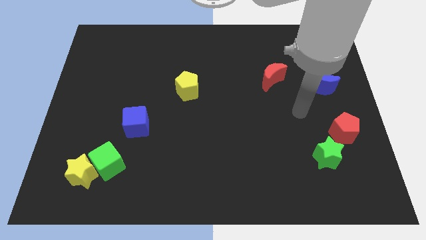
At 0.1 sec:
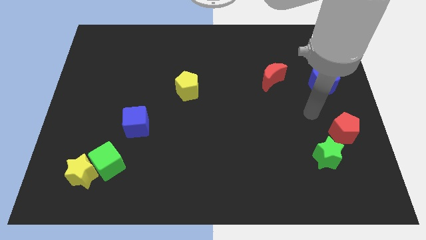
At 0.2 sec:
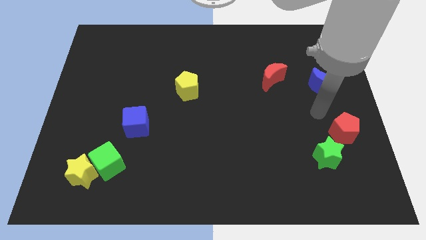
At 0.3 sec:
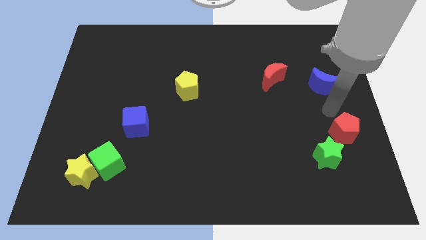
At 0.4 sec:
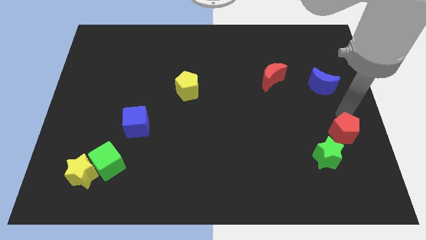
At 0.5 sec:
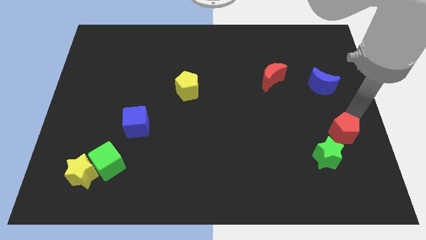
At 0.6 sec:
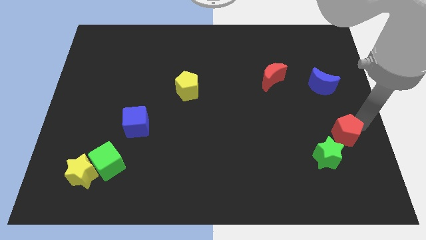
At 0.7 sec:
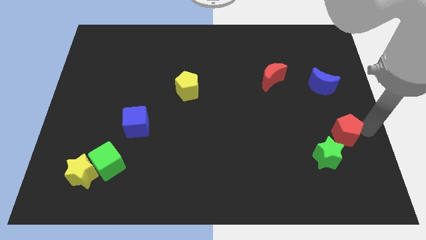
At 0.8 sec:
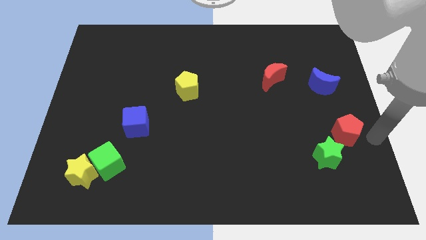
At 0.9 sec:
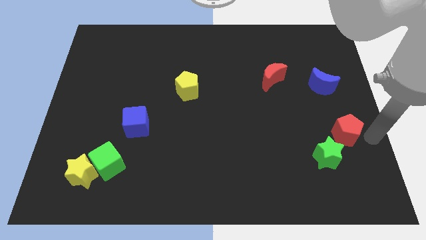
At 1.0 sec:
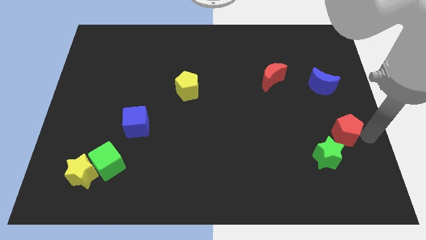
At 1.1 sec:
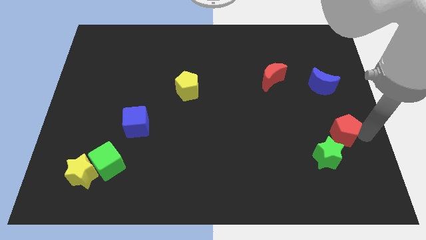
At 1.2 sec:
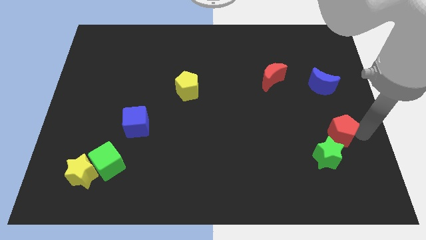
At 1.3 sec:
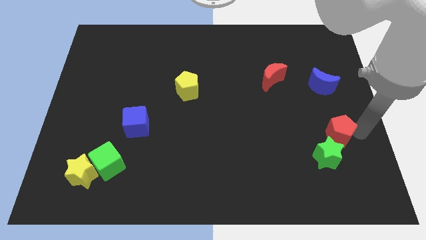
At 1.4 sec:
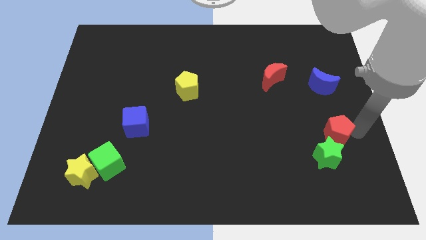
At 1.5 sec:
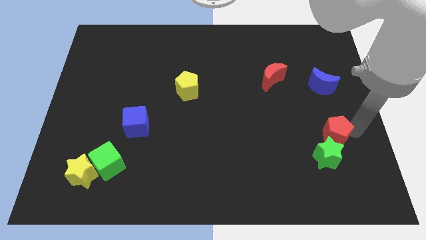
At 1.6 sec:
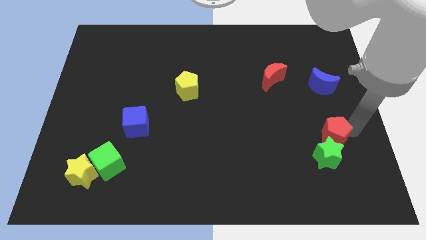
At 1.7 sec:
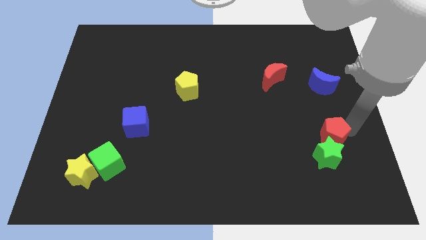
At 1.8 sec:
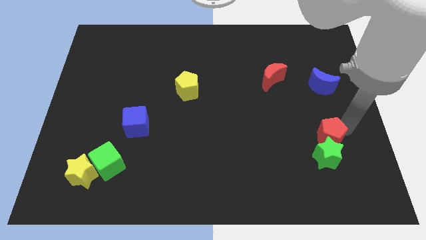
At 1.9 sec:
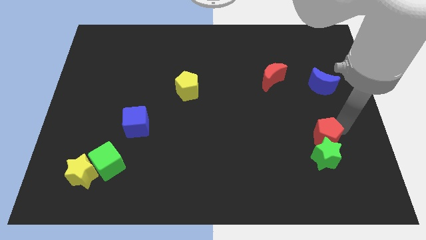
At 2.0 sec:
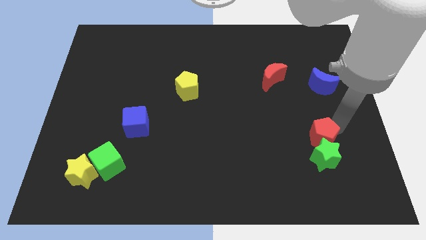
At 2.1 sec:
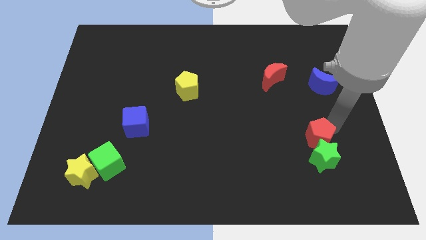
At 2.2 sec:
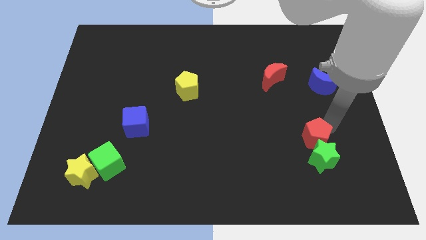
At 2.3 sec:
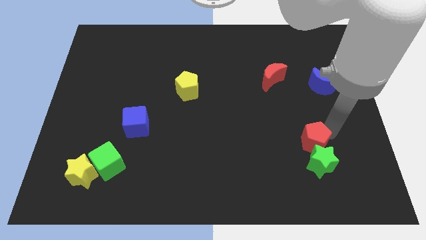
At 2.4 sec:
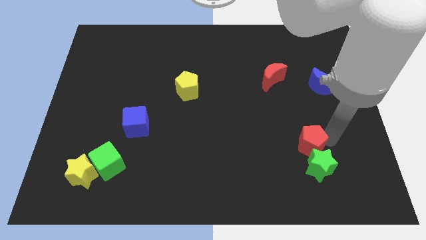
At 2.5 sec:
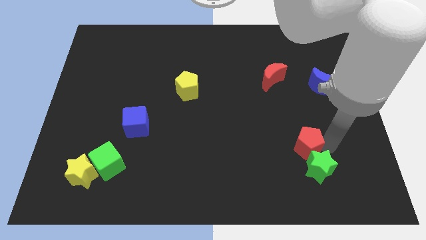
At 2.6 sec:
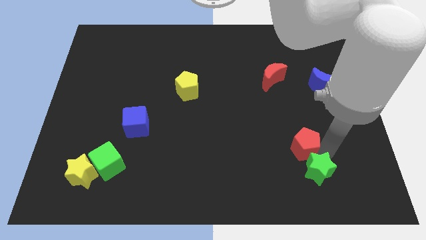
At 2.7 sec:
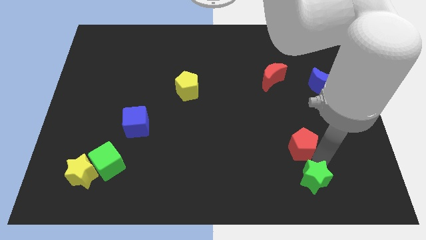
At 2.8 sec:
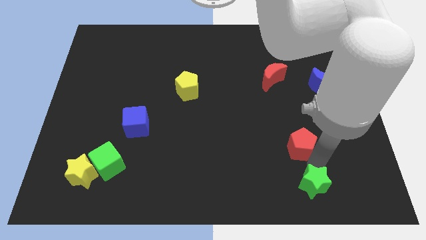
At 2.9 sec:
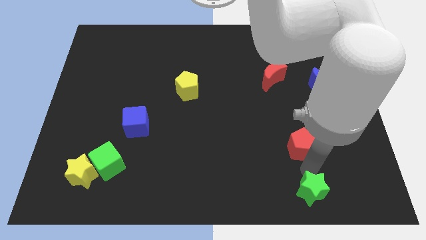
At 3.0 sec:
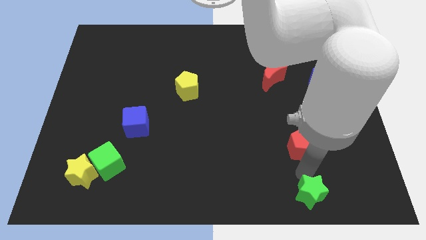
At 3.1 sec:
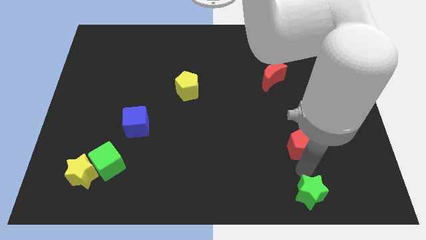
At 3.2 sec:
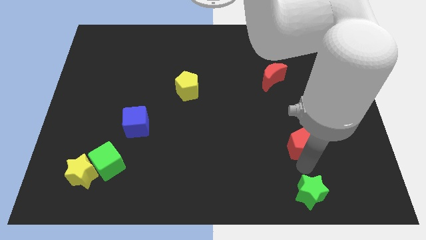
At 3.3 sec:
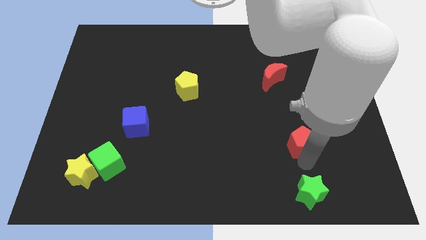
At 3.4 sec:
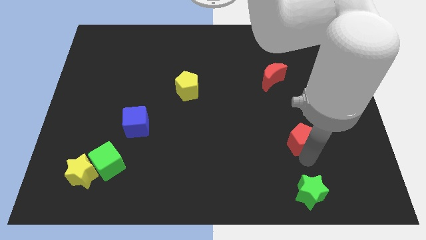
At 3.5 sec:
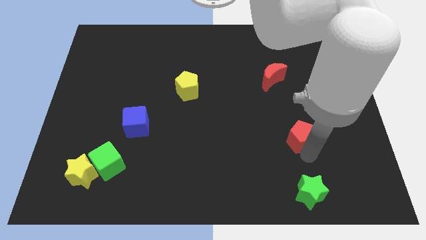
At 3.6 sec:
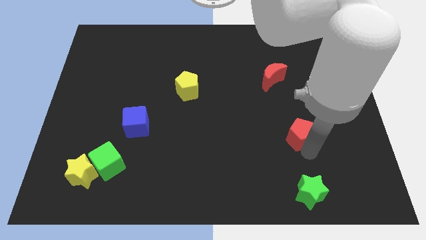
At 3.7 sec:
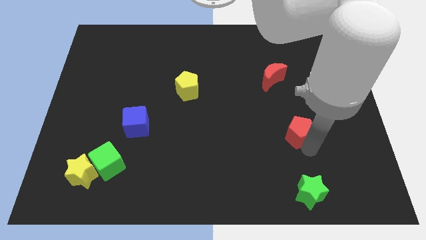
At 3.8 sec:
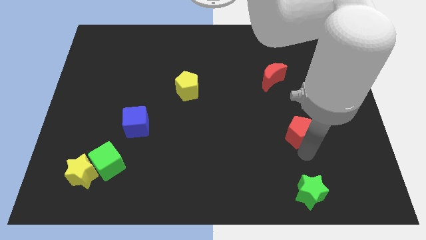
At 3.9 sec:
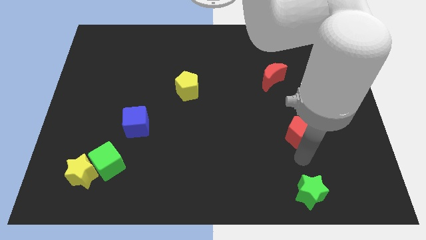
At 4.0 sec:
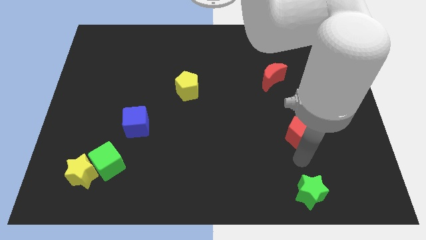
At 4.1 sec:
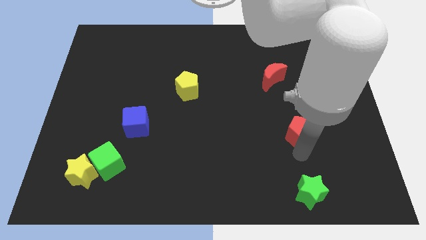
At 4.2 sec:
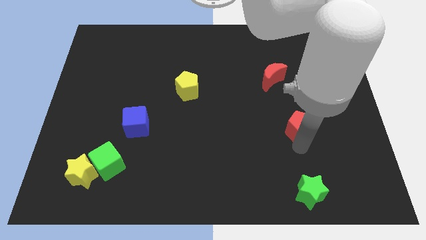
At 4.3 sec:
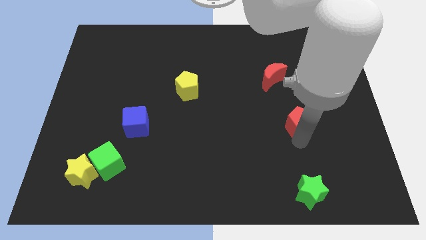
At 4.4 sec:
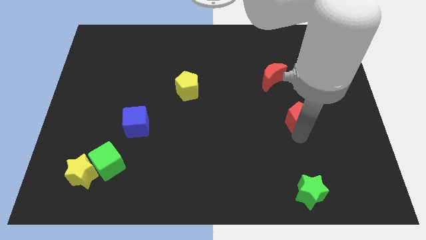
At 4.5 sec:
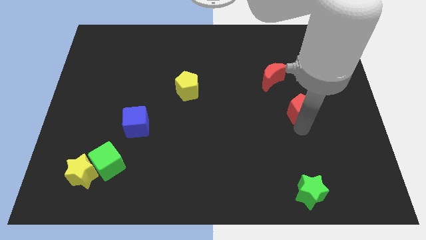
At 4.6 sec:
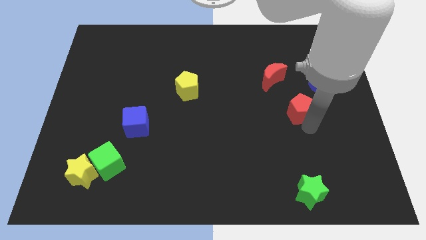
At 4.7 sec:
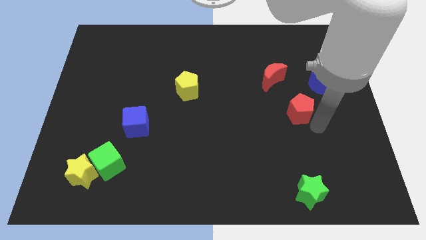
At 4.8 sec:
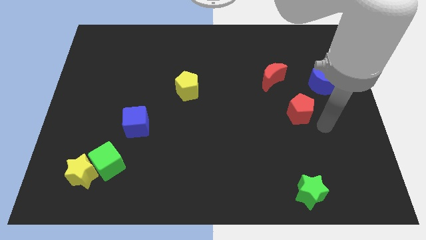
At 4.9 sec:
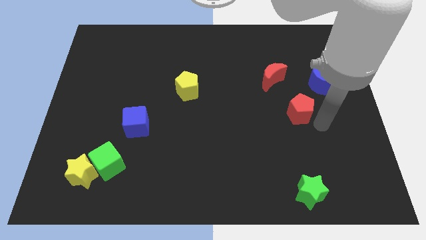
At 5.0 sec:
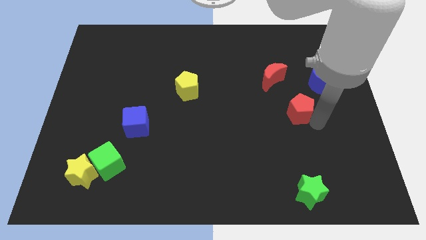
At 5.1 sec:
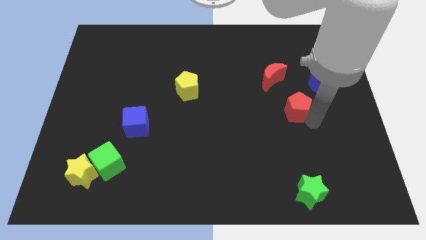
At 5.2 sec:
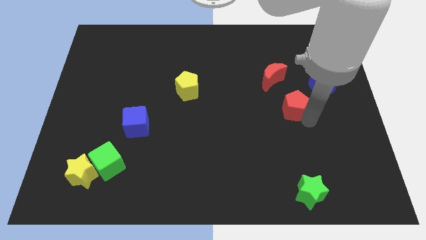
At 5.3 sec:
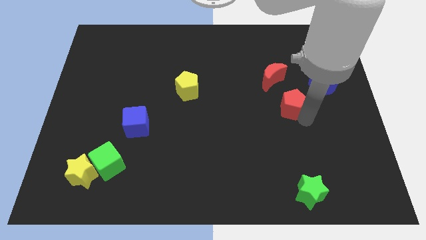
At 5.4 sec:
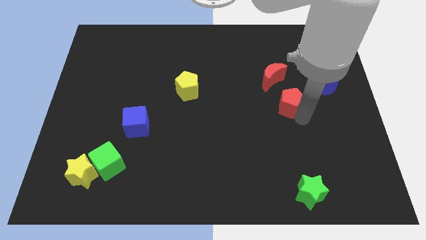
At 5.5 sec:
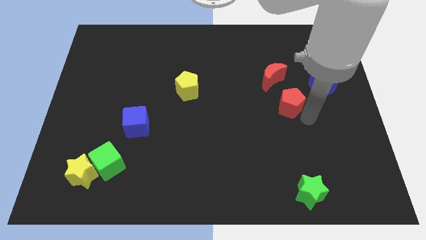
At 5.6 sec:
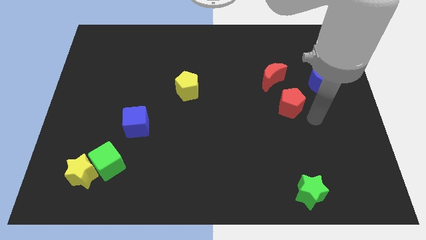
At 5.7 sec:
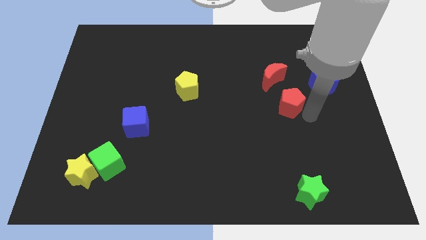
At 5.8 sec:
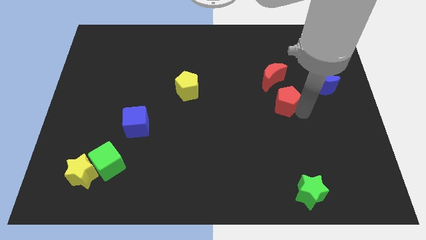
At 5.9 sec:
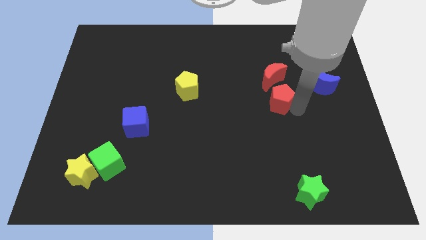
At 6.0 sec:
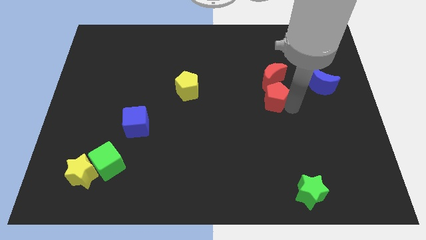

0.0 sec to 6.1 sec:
slide the red pentagon to the left side of the blue moon

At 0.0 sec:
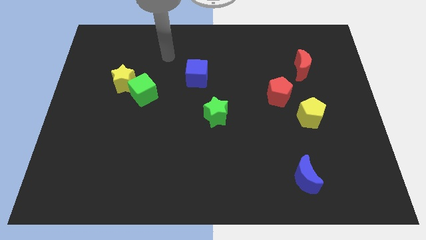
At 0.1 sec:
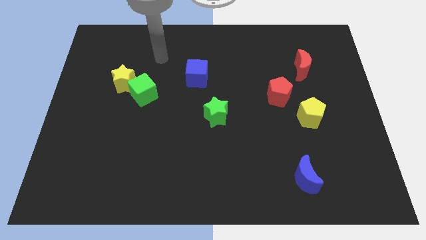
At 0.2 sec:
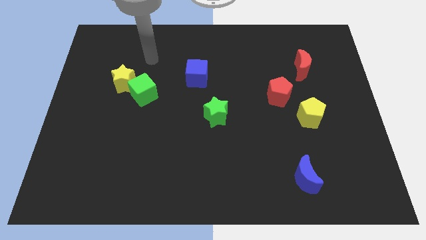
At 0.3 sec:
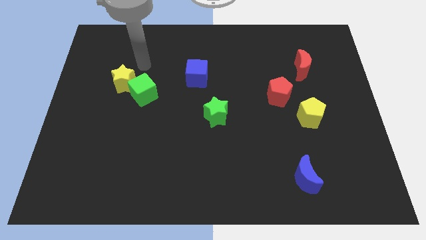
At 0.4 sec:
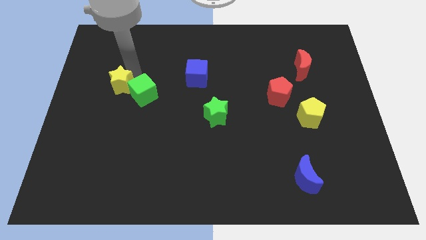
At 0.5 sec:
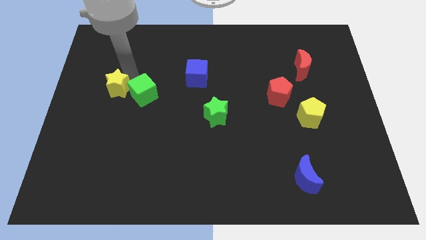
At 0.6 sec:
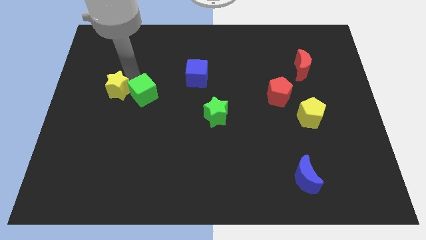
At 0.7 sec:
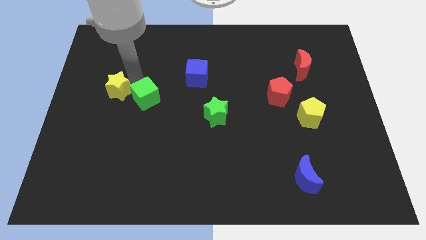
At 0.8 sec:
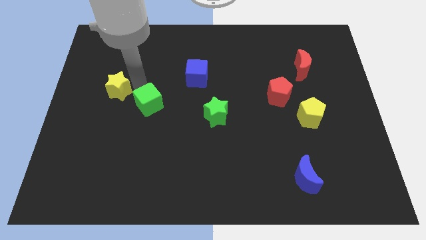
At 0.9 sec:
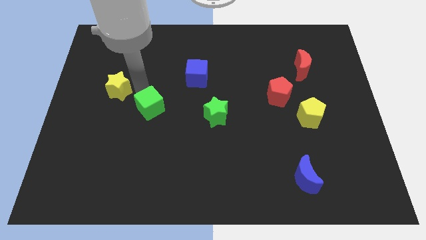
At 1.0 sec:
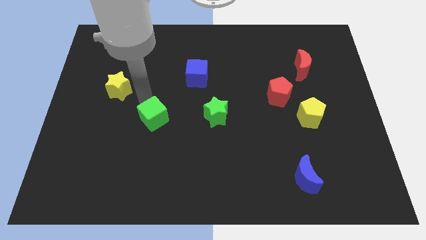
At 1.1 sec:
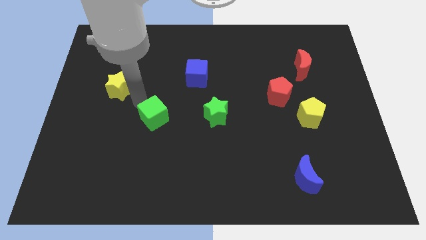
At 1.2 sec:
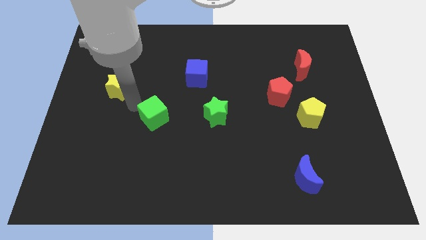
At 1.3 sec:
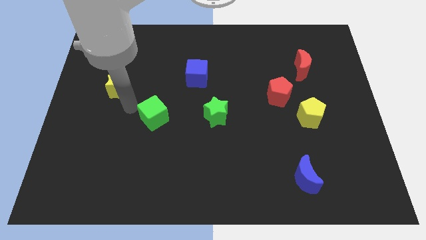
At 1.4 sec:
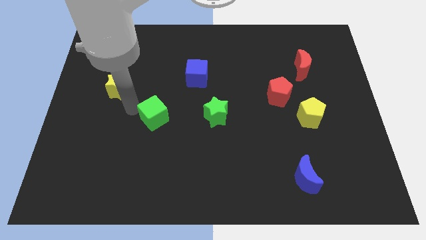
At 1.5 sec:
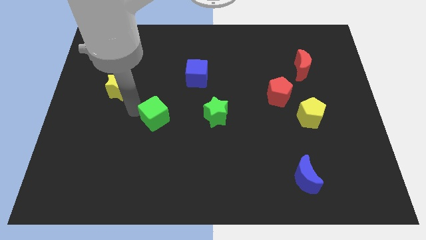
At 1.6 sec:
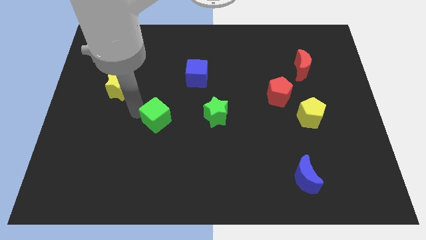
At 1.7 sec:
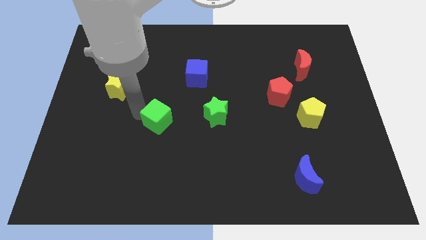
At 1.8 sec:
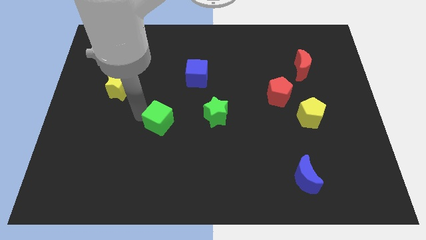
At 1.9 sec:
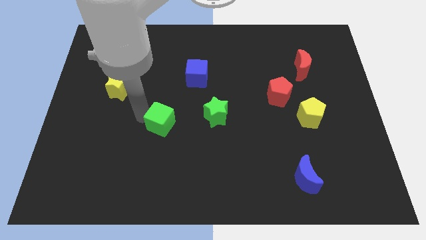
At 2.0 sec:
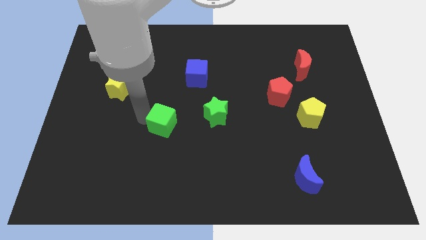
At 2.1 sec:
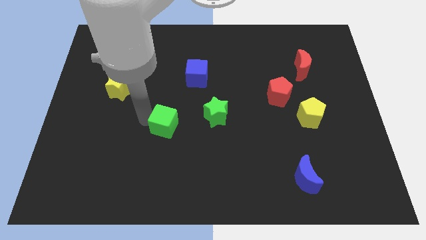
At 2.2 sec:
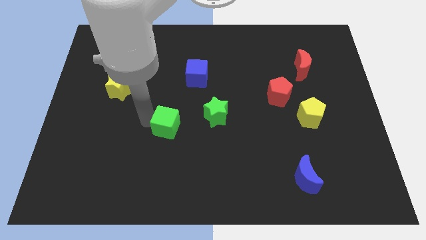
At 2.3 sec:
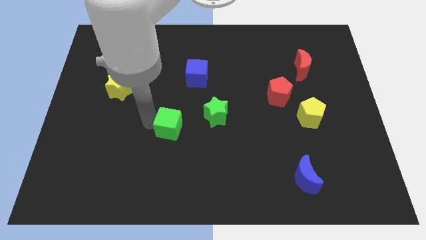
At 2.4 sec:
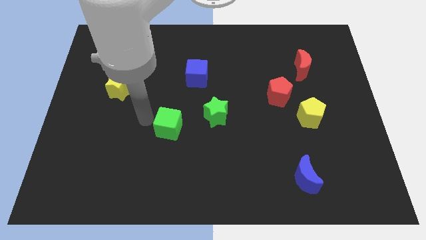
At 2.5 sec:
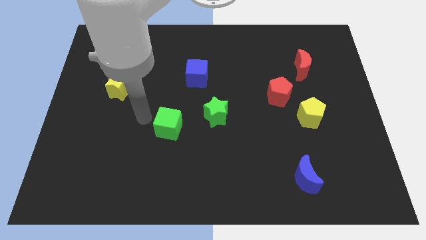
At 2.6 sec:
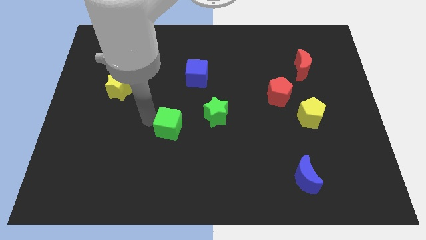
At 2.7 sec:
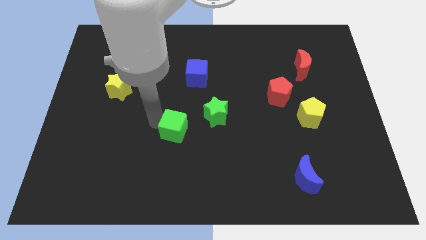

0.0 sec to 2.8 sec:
slide the green cube to the bottom left of the green star
